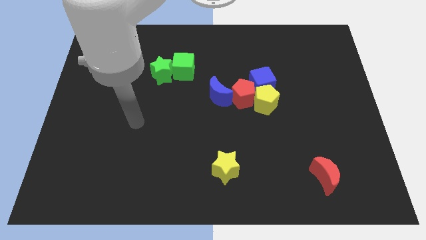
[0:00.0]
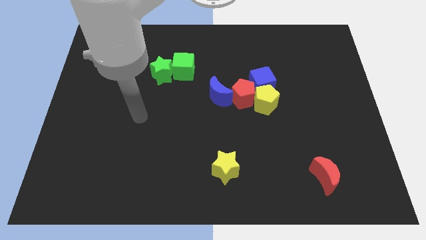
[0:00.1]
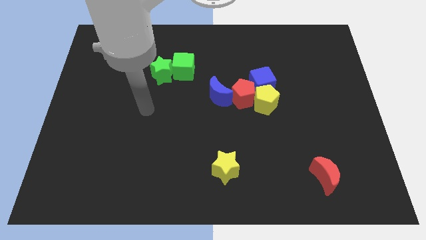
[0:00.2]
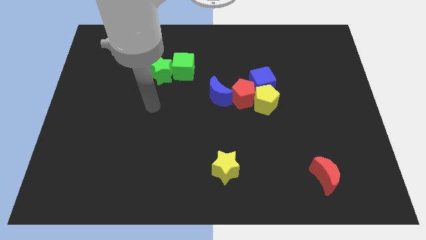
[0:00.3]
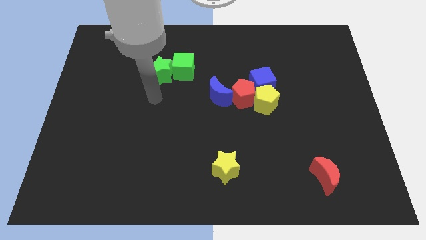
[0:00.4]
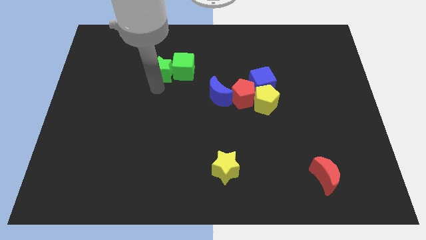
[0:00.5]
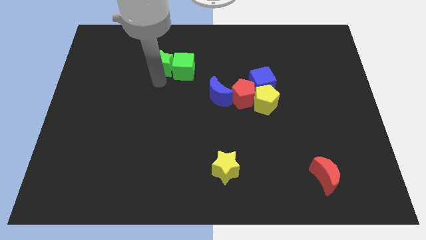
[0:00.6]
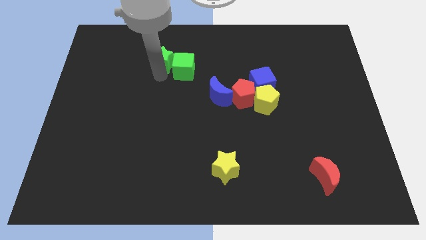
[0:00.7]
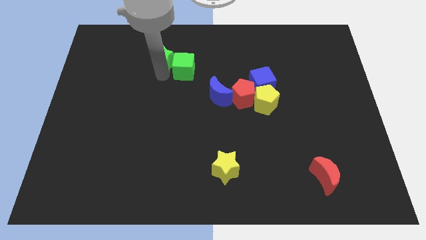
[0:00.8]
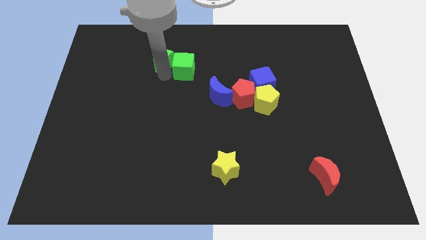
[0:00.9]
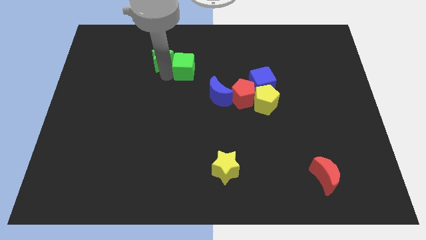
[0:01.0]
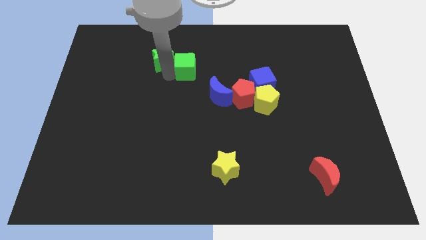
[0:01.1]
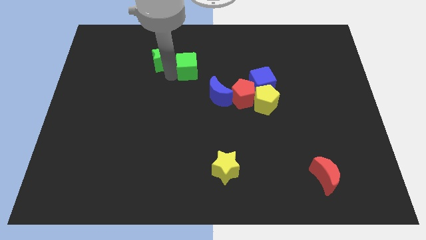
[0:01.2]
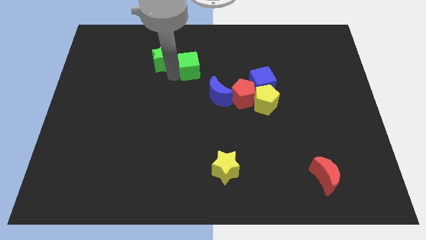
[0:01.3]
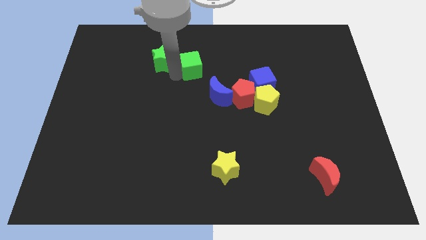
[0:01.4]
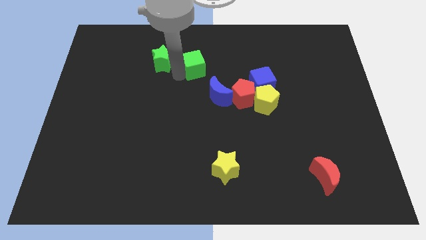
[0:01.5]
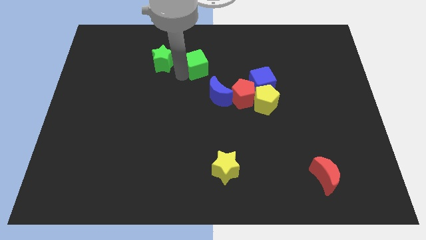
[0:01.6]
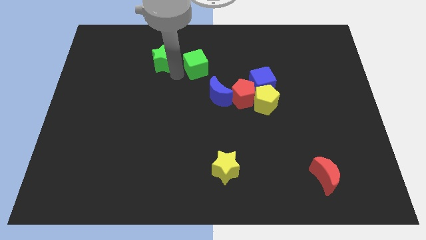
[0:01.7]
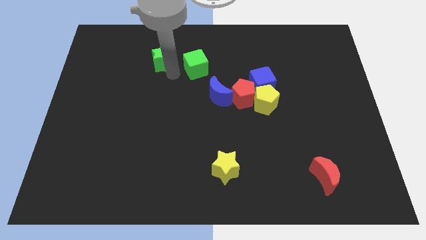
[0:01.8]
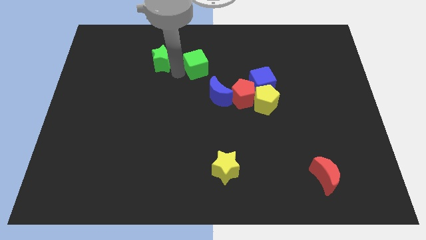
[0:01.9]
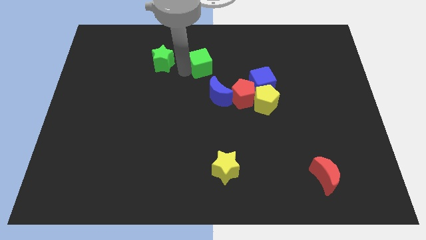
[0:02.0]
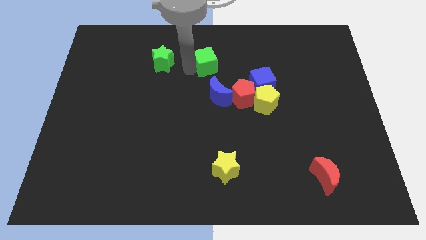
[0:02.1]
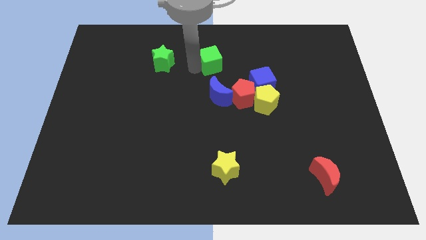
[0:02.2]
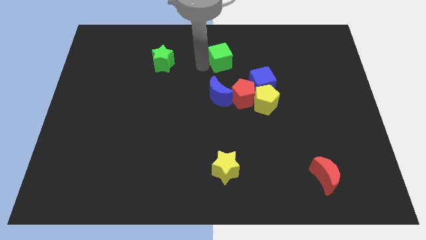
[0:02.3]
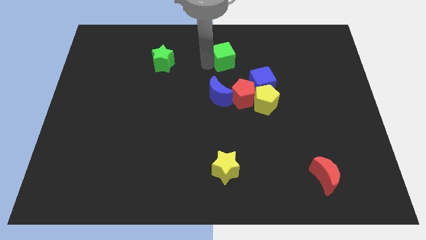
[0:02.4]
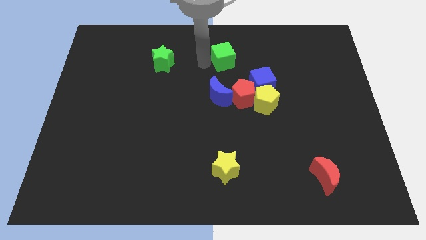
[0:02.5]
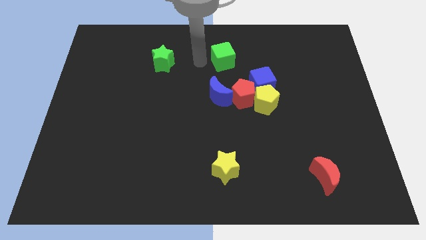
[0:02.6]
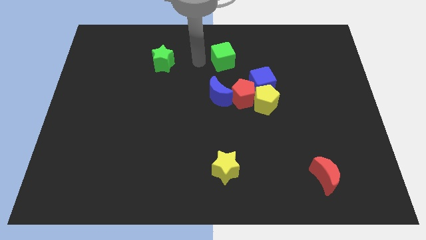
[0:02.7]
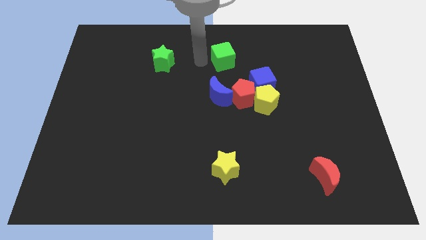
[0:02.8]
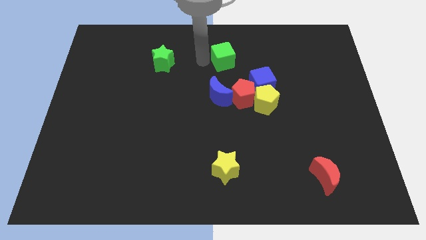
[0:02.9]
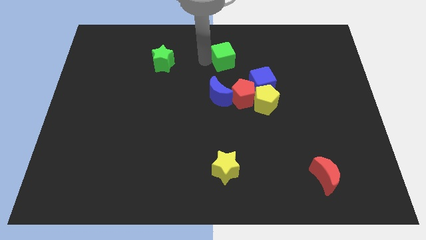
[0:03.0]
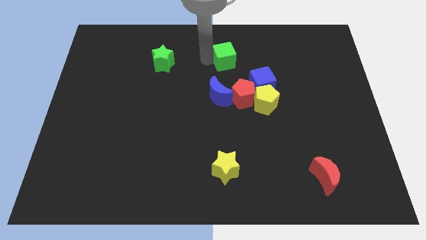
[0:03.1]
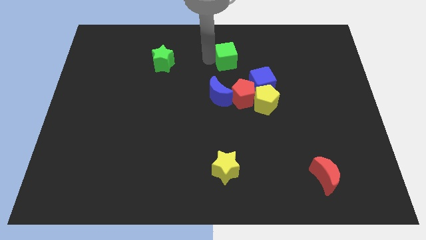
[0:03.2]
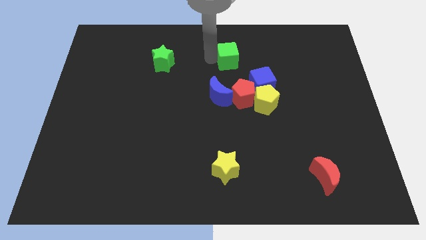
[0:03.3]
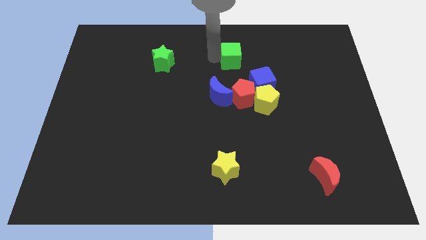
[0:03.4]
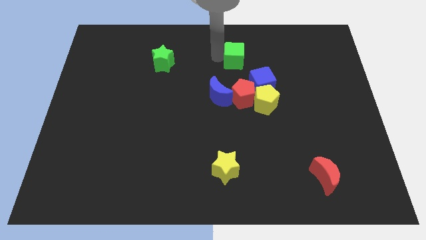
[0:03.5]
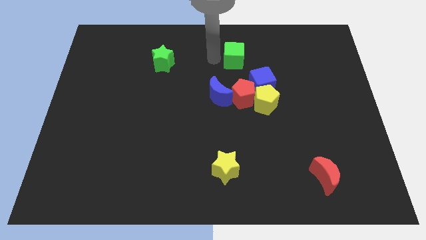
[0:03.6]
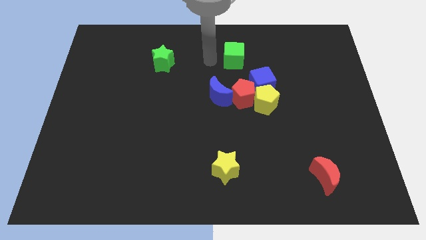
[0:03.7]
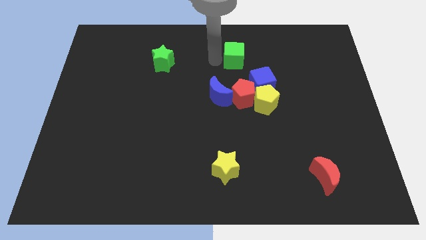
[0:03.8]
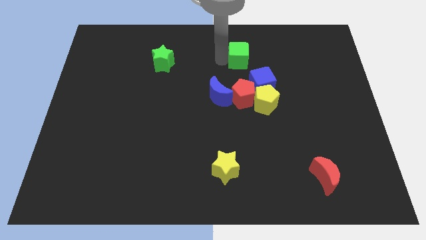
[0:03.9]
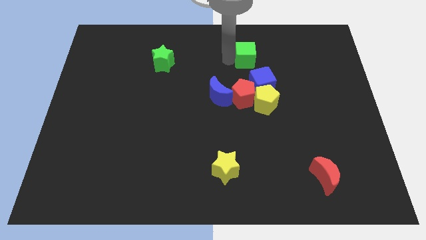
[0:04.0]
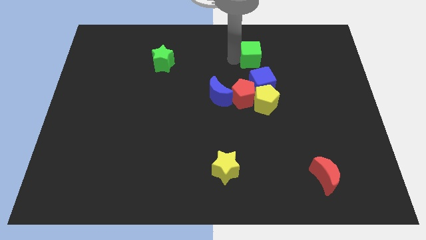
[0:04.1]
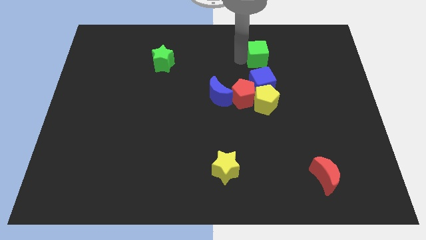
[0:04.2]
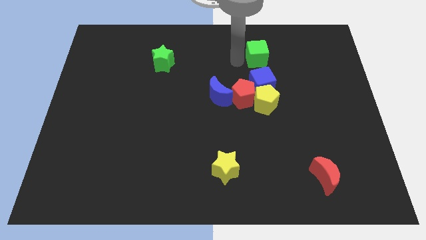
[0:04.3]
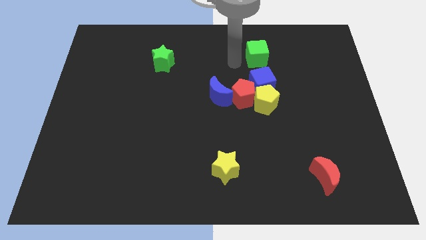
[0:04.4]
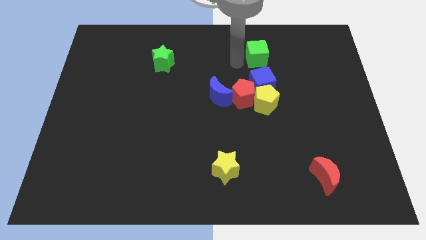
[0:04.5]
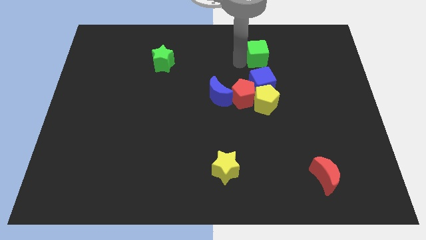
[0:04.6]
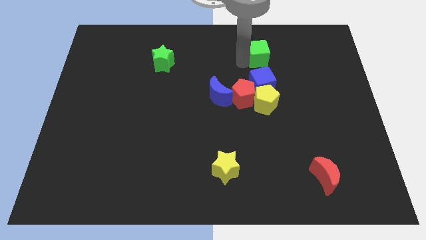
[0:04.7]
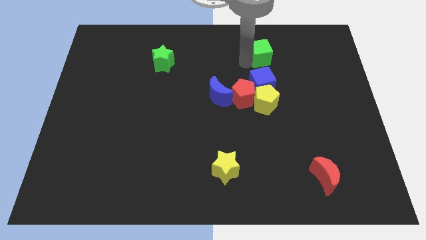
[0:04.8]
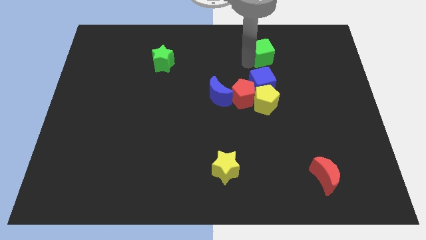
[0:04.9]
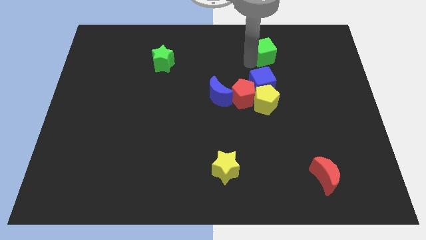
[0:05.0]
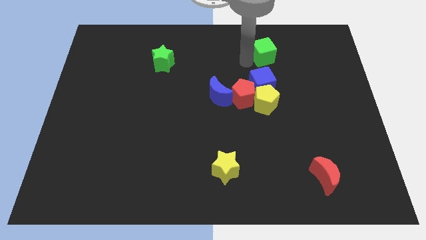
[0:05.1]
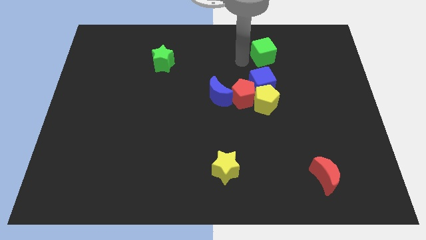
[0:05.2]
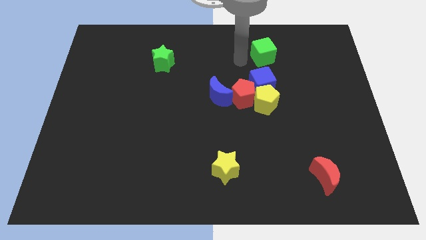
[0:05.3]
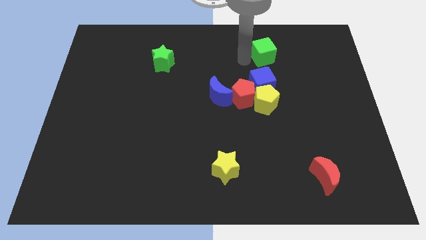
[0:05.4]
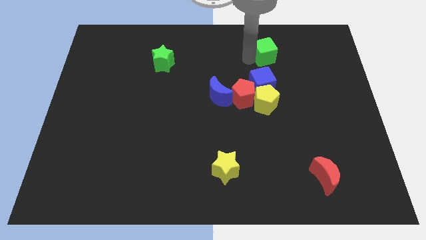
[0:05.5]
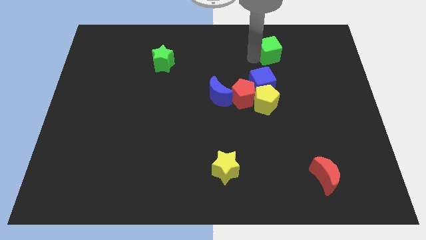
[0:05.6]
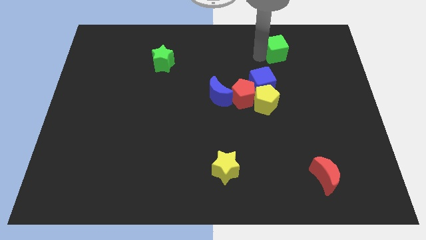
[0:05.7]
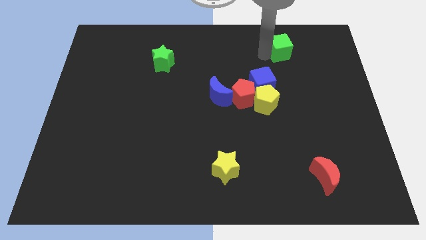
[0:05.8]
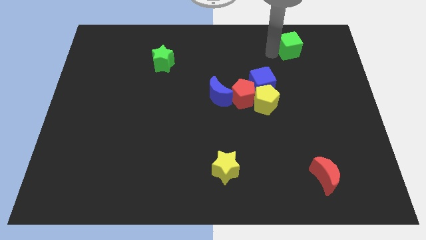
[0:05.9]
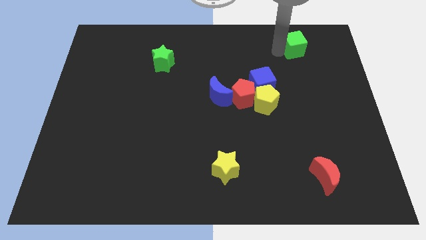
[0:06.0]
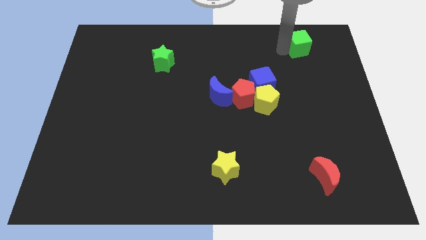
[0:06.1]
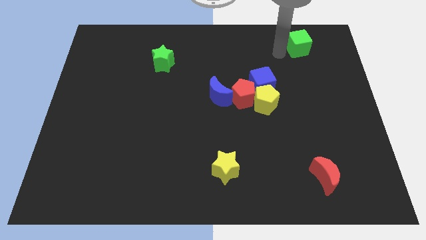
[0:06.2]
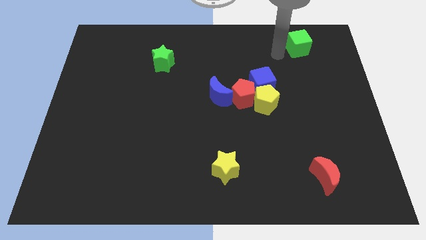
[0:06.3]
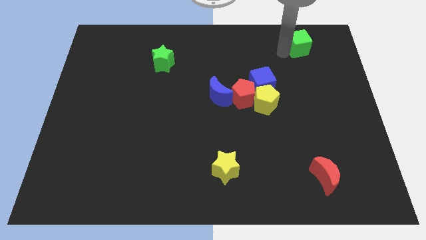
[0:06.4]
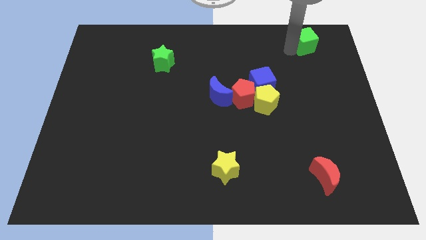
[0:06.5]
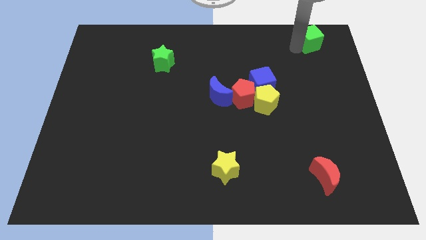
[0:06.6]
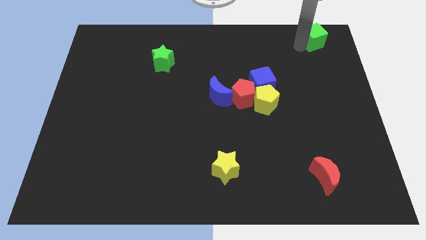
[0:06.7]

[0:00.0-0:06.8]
slide the green cube to the top right of the board
